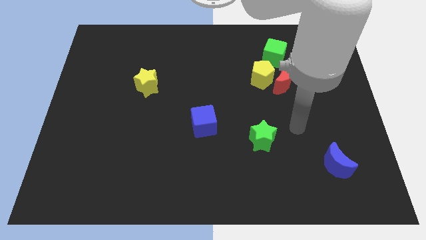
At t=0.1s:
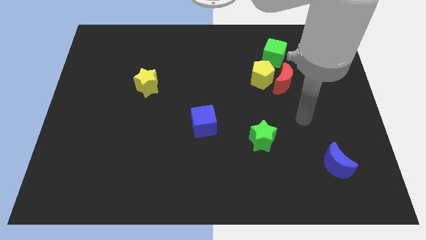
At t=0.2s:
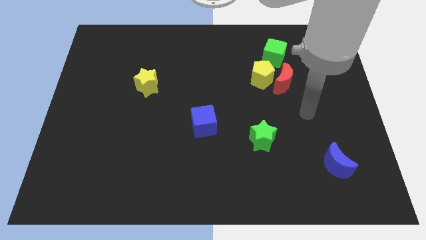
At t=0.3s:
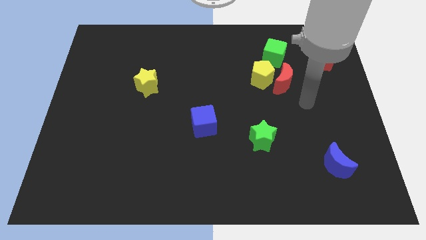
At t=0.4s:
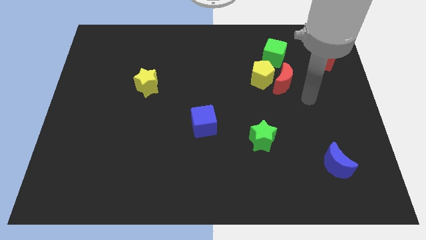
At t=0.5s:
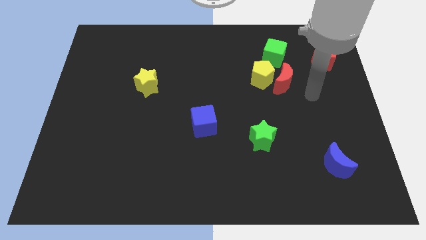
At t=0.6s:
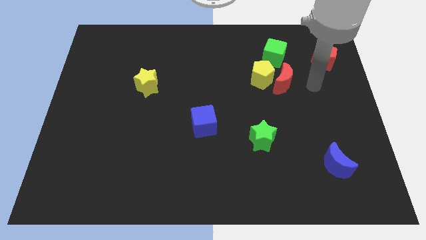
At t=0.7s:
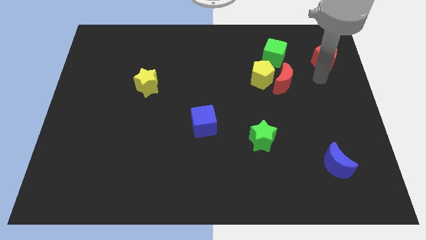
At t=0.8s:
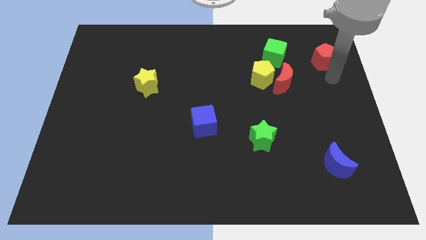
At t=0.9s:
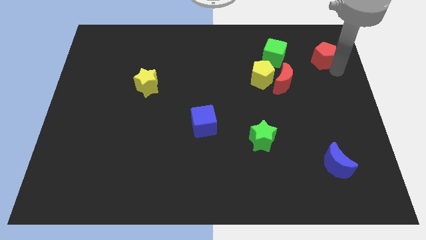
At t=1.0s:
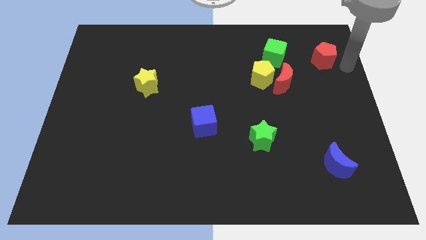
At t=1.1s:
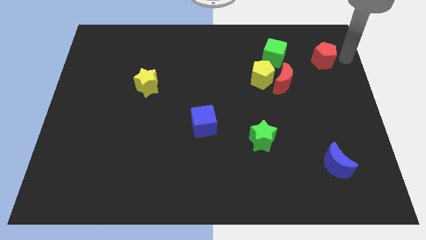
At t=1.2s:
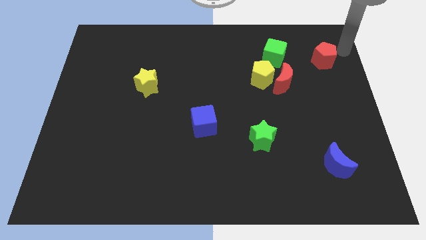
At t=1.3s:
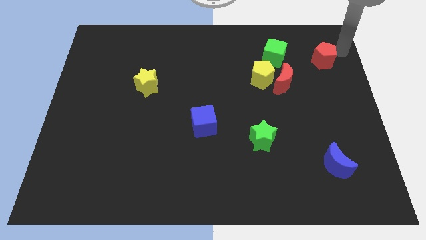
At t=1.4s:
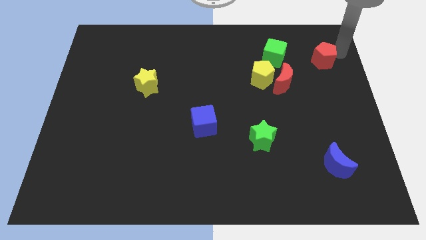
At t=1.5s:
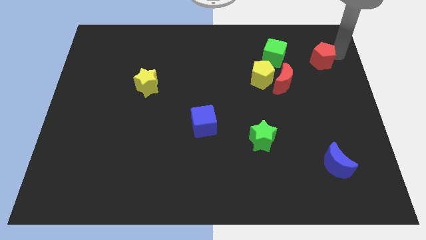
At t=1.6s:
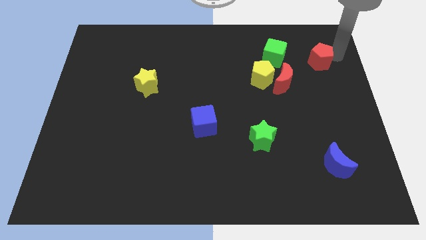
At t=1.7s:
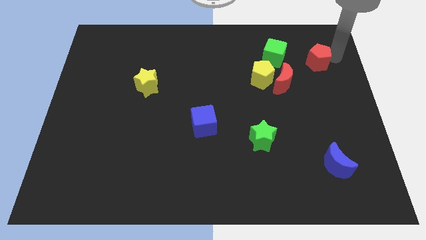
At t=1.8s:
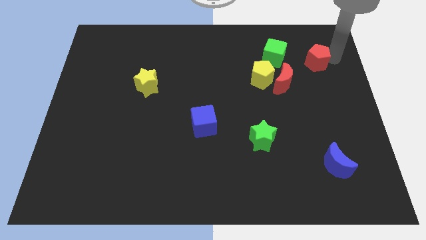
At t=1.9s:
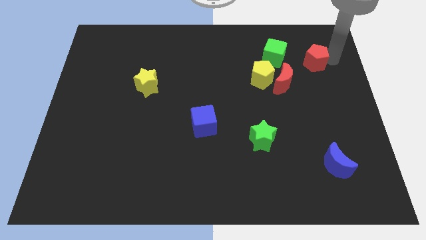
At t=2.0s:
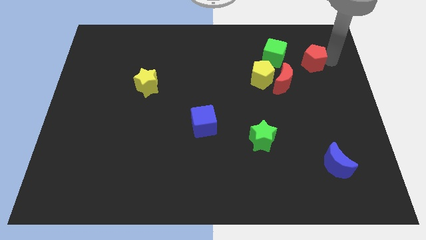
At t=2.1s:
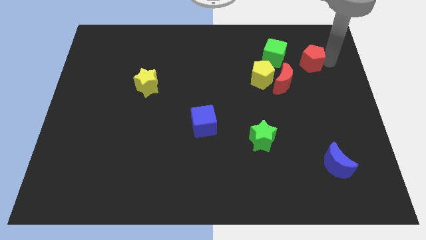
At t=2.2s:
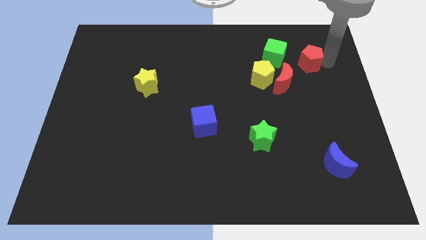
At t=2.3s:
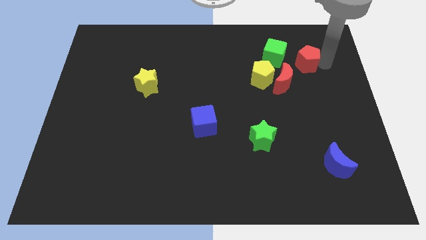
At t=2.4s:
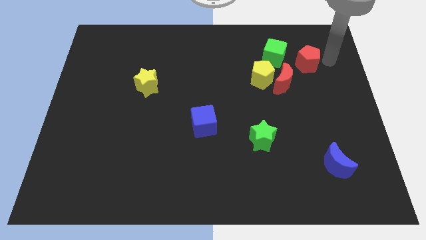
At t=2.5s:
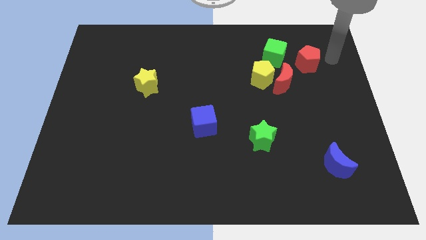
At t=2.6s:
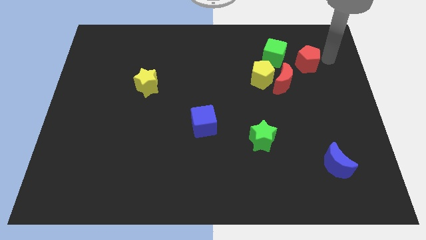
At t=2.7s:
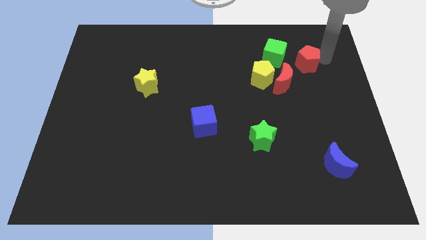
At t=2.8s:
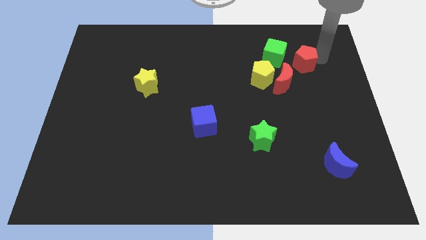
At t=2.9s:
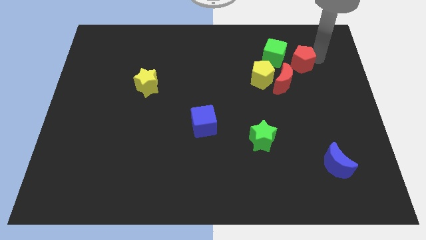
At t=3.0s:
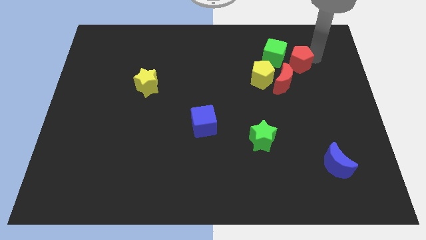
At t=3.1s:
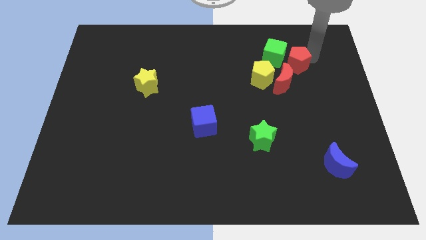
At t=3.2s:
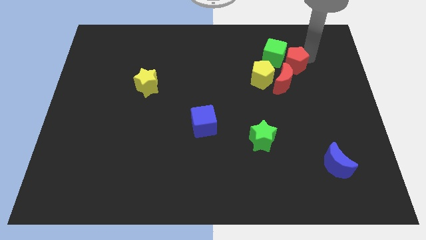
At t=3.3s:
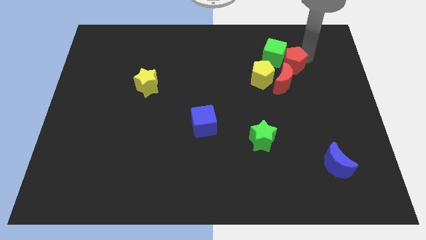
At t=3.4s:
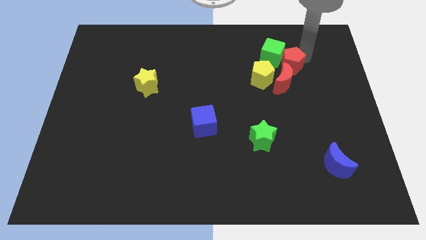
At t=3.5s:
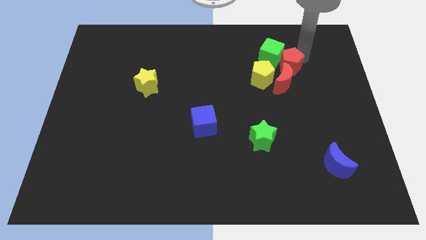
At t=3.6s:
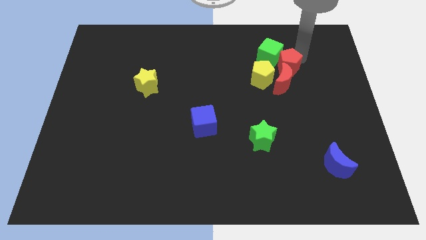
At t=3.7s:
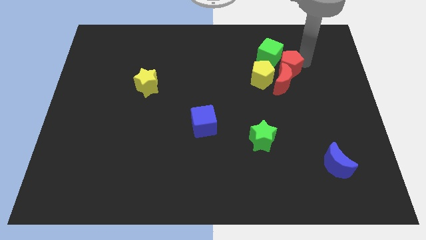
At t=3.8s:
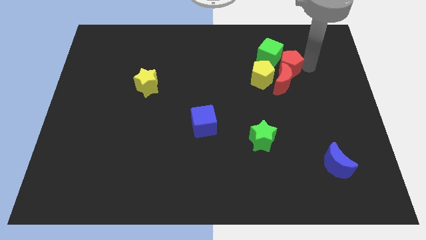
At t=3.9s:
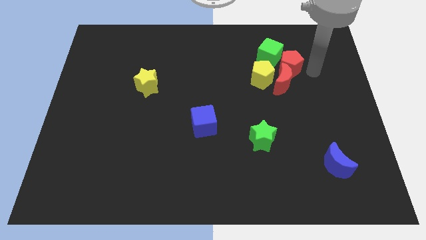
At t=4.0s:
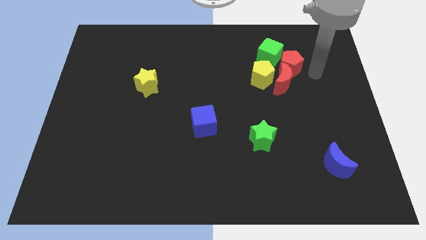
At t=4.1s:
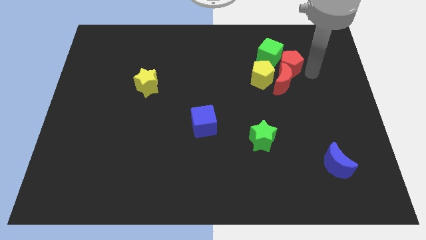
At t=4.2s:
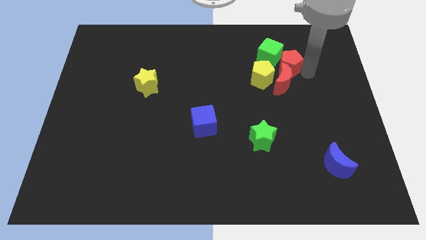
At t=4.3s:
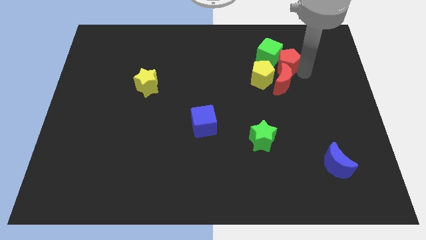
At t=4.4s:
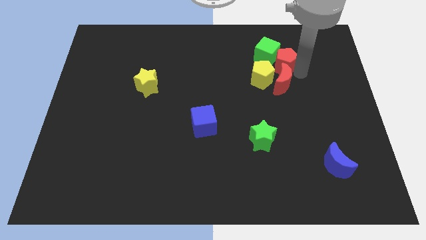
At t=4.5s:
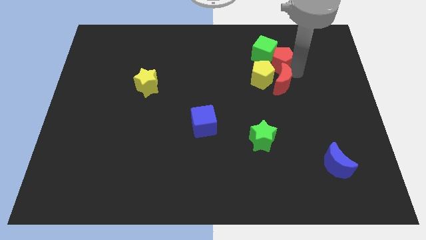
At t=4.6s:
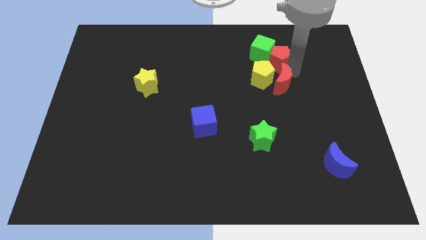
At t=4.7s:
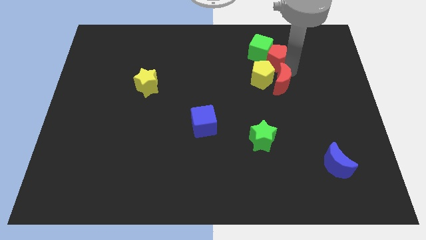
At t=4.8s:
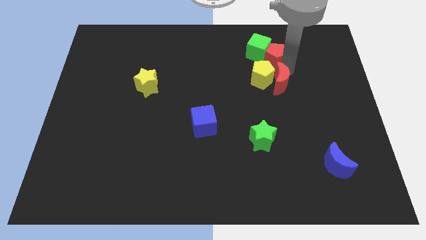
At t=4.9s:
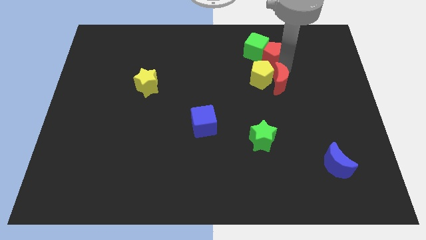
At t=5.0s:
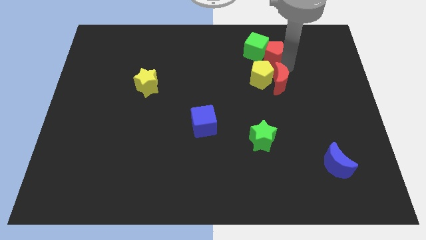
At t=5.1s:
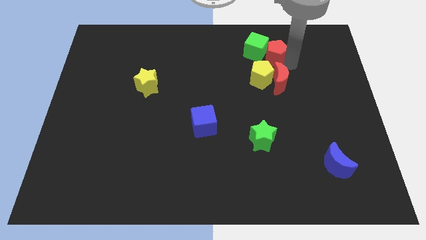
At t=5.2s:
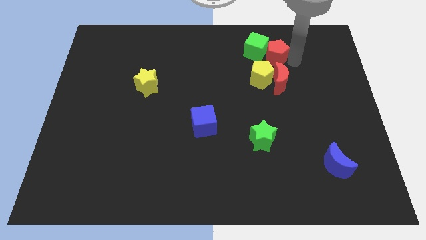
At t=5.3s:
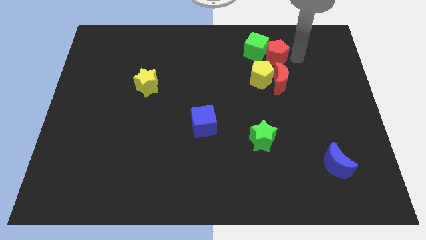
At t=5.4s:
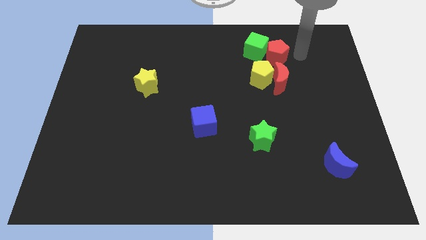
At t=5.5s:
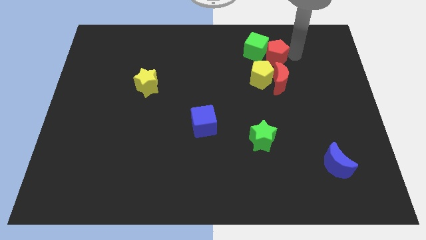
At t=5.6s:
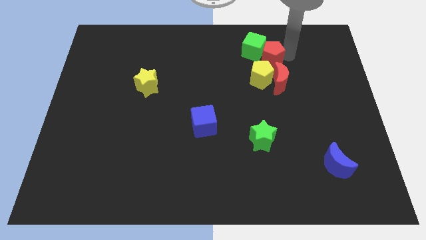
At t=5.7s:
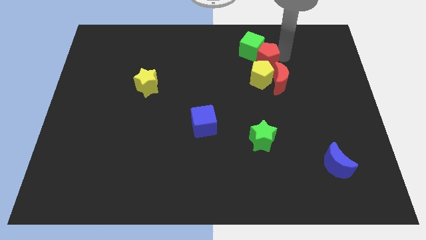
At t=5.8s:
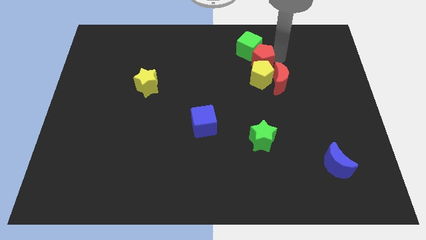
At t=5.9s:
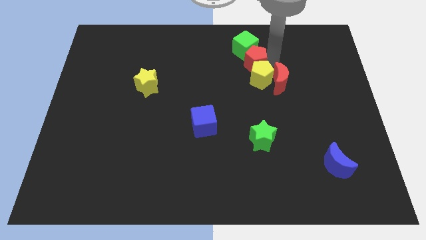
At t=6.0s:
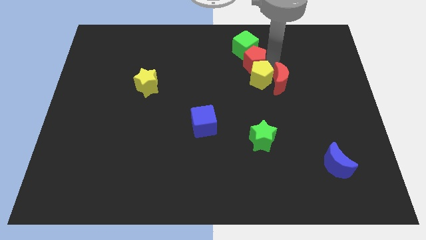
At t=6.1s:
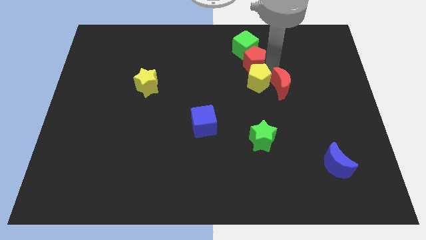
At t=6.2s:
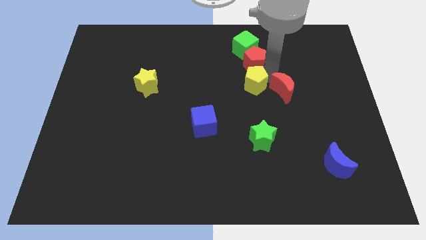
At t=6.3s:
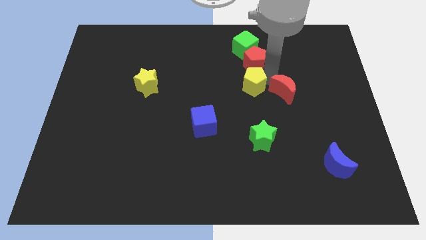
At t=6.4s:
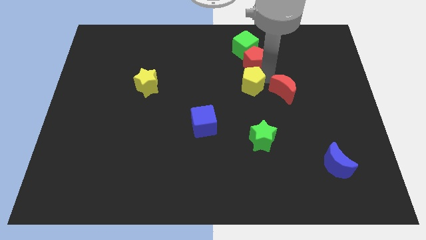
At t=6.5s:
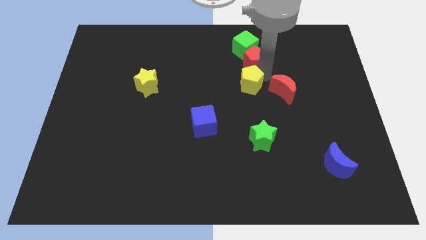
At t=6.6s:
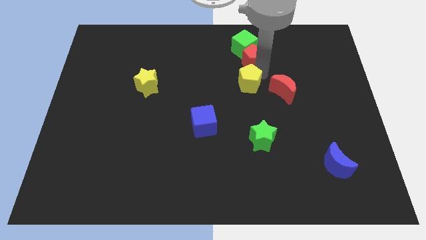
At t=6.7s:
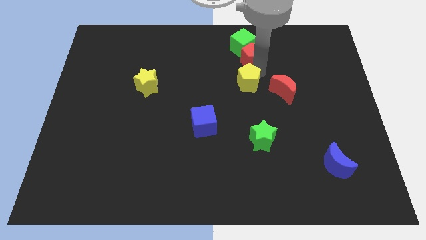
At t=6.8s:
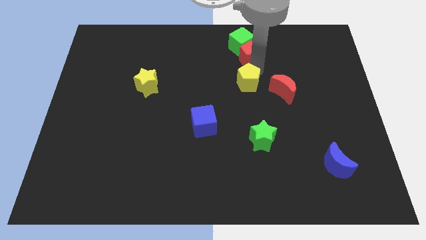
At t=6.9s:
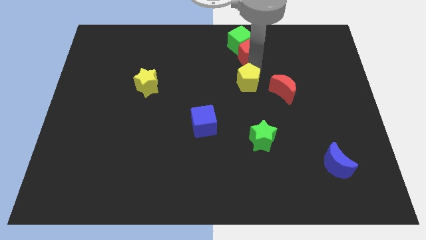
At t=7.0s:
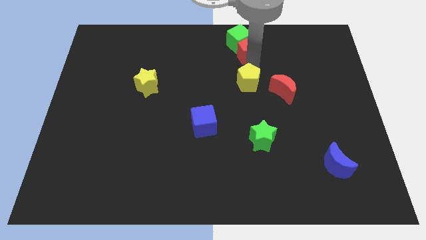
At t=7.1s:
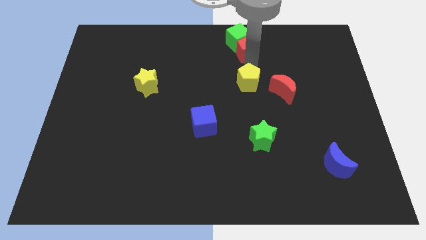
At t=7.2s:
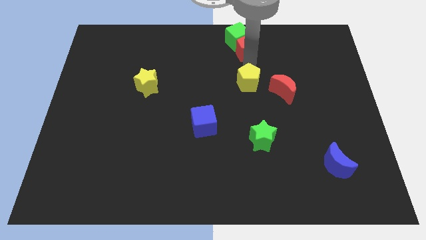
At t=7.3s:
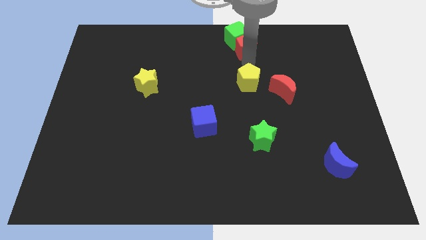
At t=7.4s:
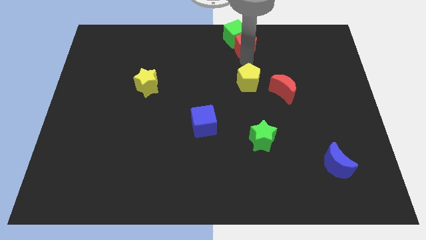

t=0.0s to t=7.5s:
put the red pentagon to the towards your base
